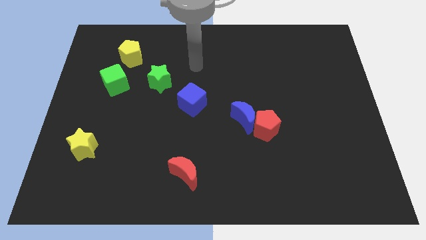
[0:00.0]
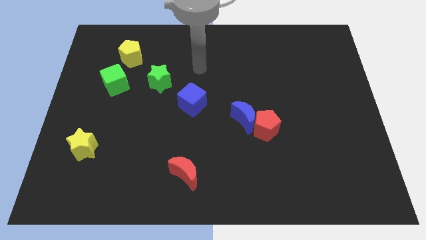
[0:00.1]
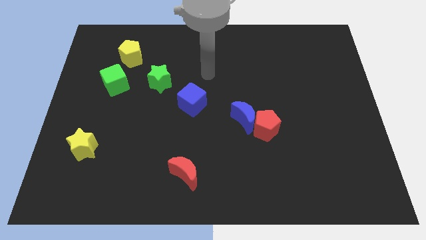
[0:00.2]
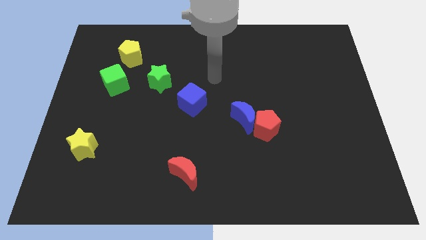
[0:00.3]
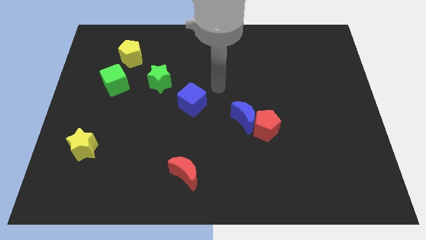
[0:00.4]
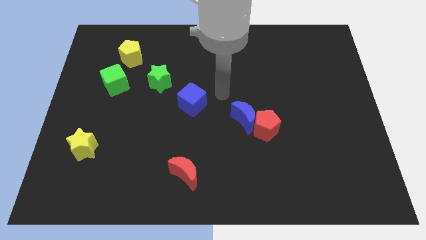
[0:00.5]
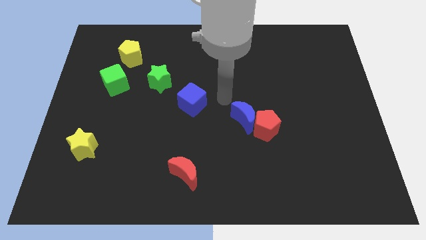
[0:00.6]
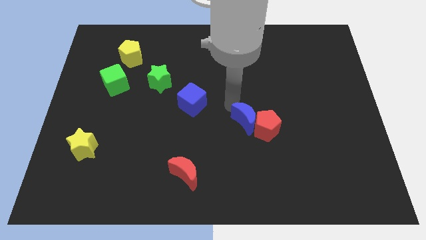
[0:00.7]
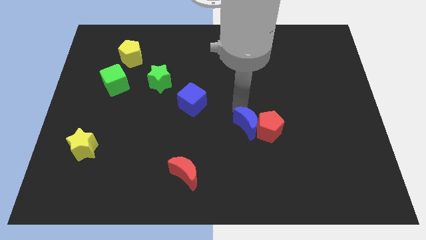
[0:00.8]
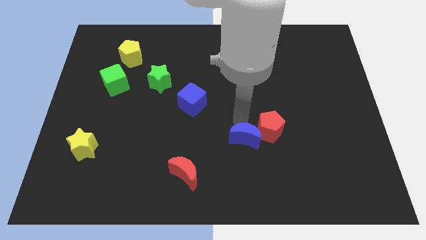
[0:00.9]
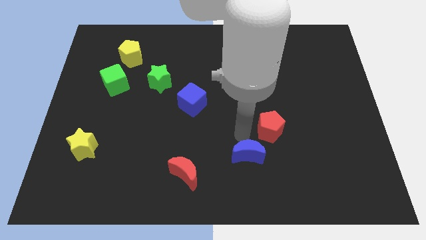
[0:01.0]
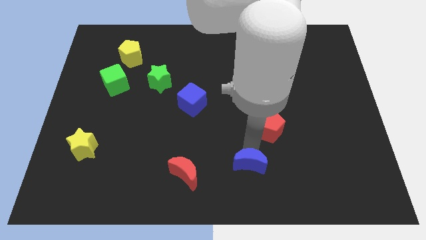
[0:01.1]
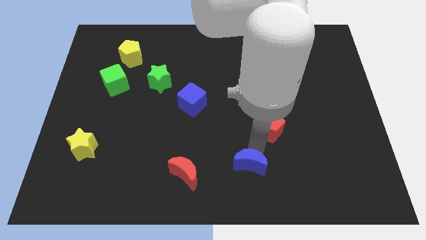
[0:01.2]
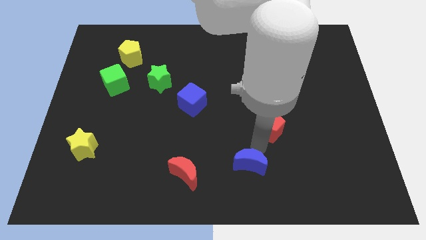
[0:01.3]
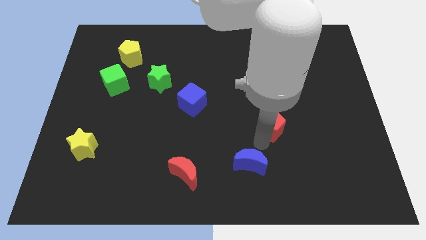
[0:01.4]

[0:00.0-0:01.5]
move the red pentagon away from the blue moon

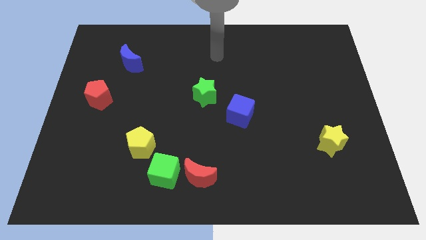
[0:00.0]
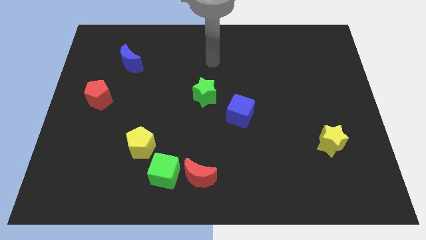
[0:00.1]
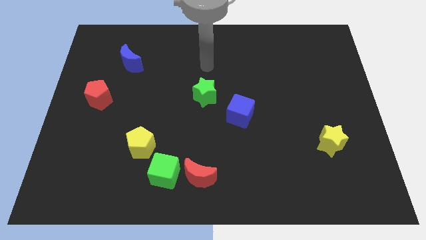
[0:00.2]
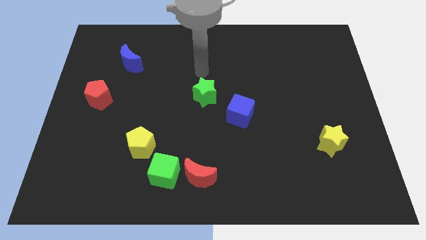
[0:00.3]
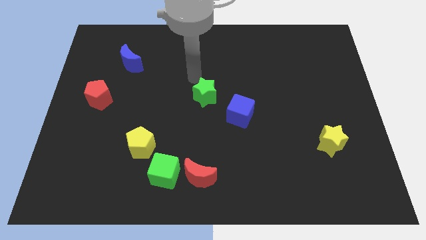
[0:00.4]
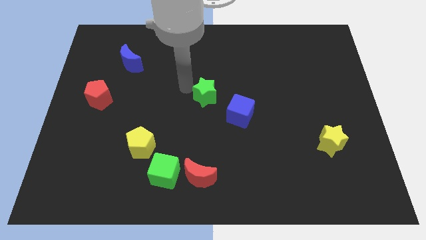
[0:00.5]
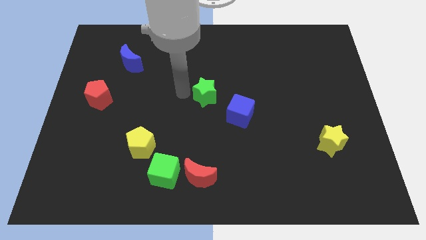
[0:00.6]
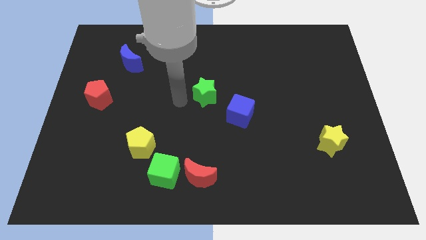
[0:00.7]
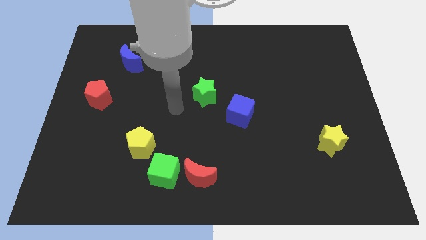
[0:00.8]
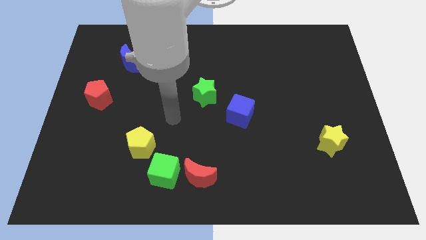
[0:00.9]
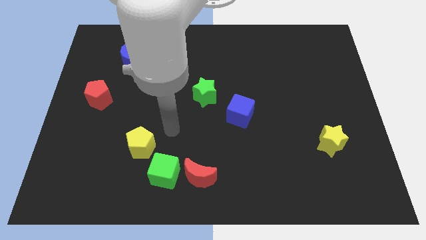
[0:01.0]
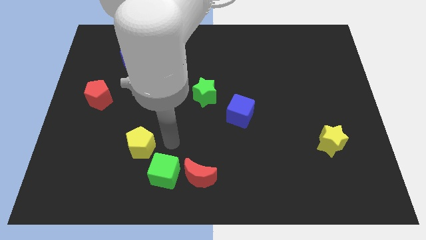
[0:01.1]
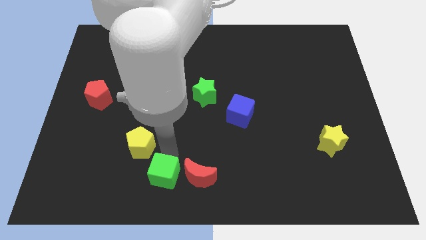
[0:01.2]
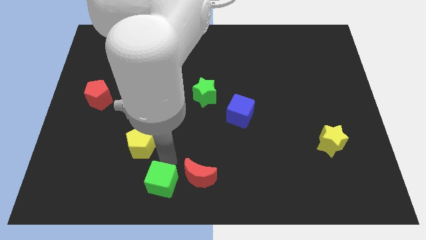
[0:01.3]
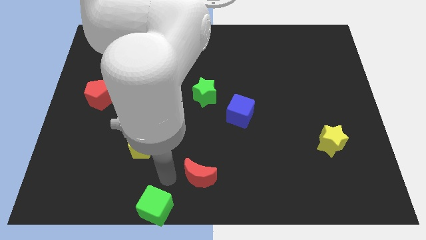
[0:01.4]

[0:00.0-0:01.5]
separate the red moon from the green cube

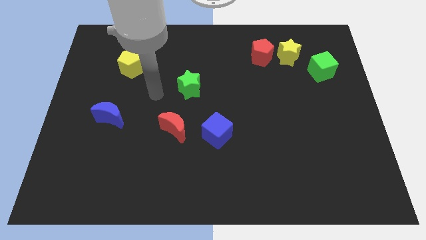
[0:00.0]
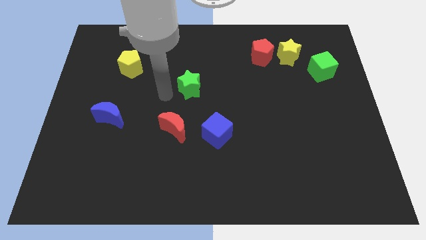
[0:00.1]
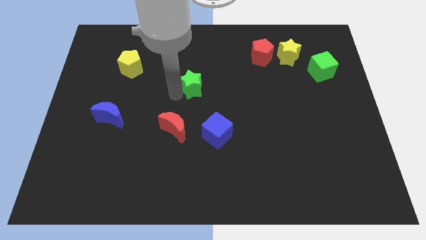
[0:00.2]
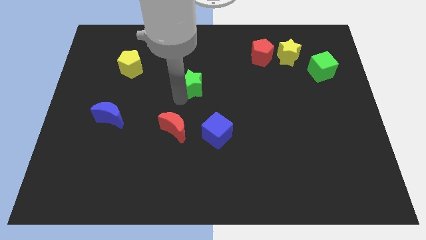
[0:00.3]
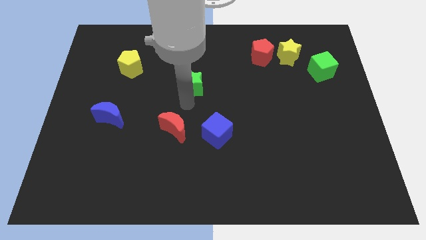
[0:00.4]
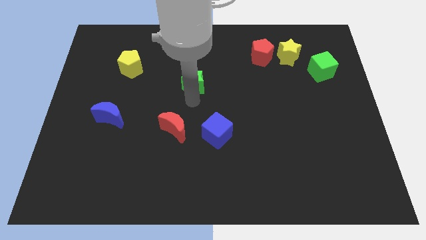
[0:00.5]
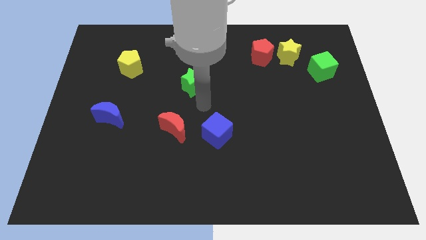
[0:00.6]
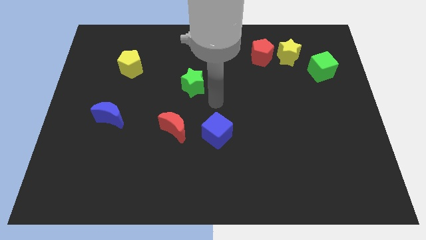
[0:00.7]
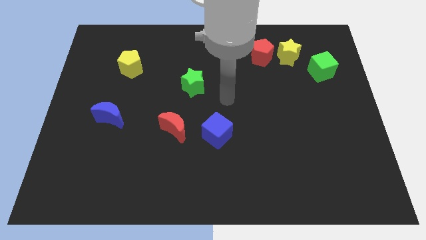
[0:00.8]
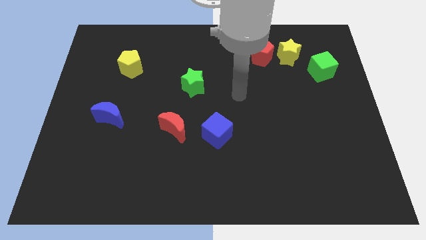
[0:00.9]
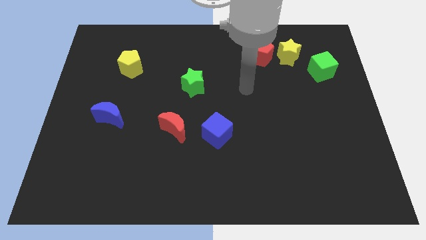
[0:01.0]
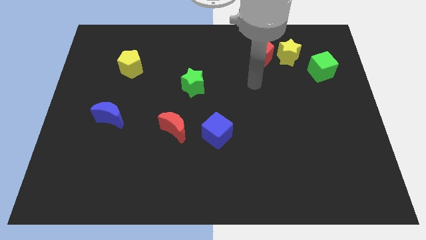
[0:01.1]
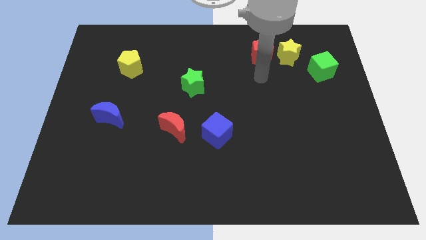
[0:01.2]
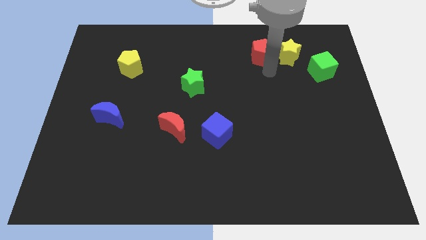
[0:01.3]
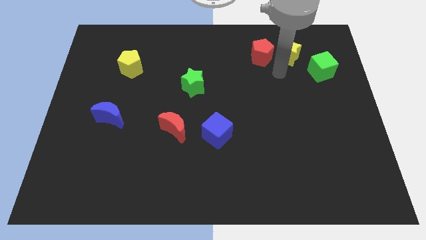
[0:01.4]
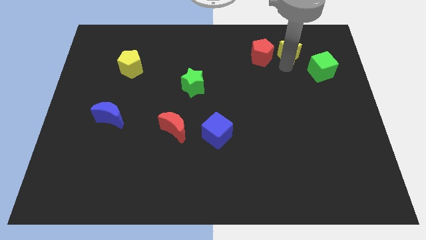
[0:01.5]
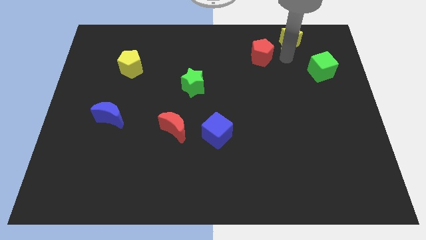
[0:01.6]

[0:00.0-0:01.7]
move the red pentagon away from the yellow star

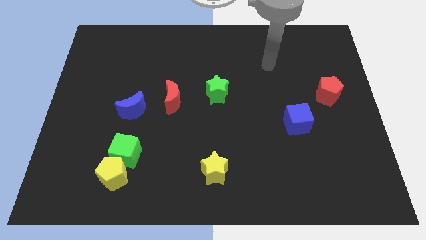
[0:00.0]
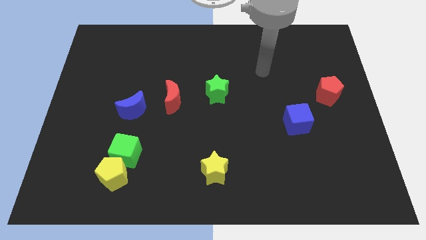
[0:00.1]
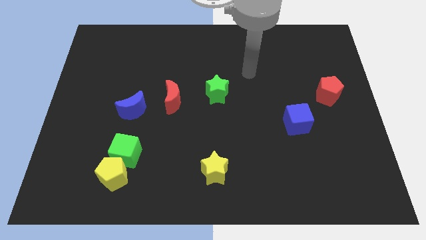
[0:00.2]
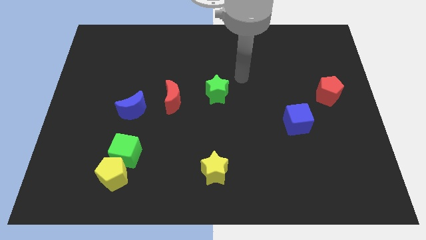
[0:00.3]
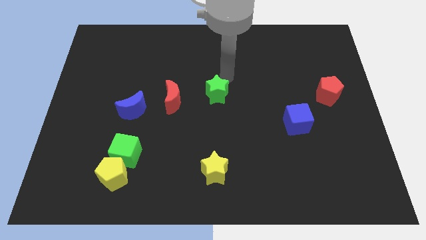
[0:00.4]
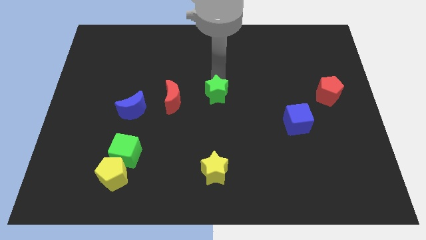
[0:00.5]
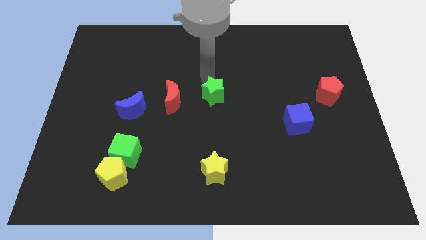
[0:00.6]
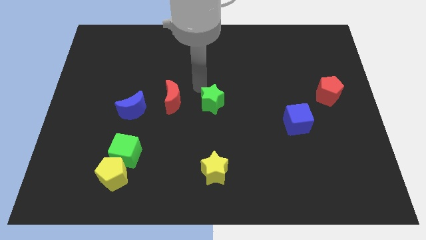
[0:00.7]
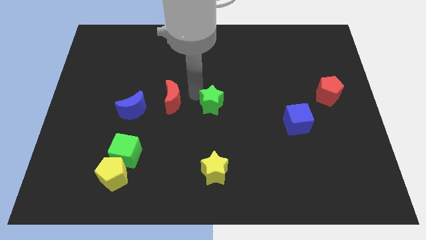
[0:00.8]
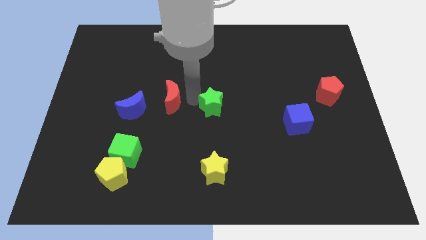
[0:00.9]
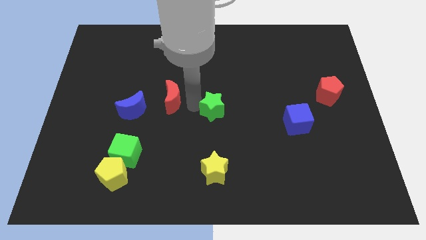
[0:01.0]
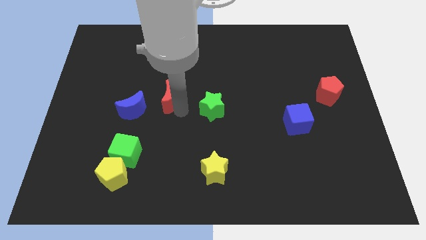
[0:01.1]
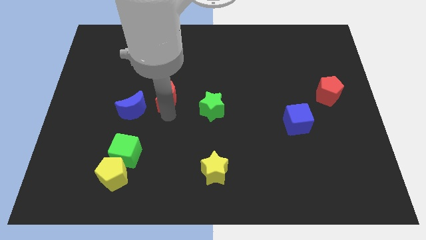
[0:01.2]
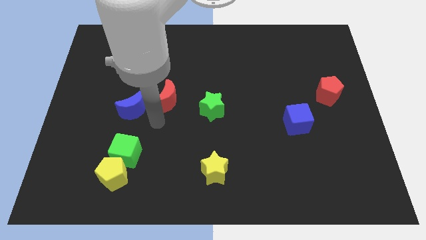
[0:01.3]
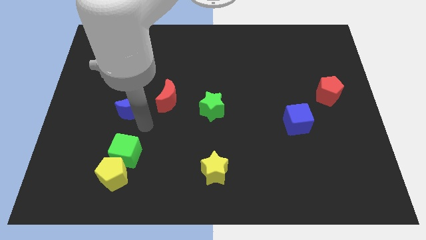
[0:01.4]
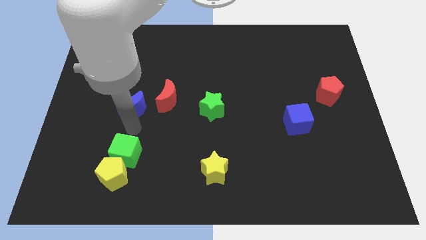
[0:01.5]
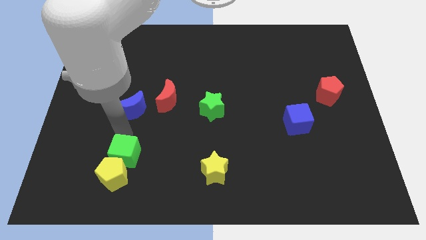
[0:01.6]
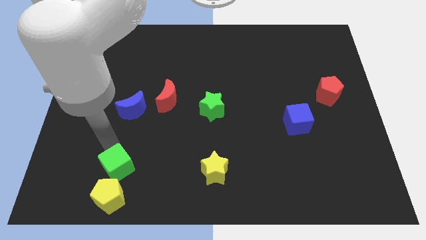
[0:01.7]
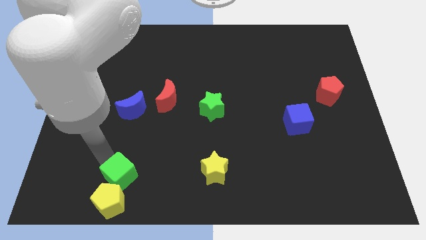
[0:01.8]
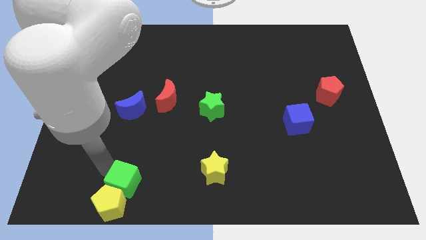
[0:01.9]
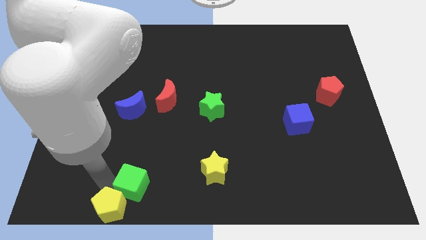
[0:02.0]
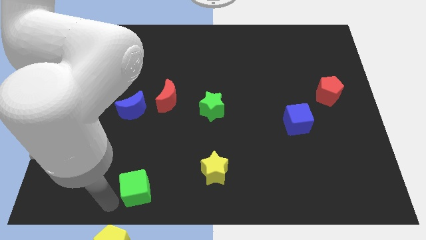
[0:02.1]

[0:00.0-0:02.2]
separate the green cube from the yellow pentagon

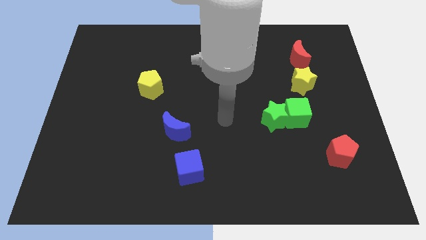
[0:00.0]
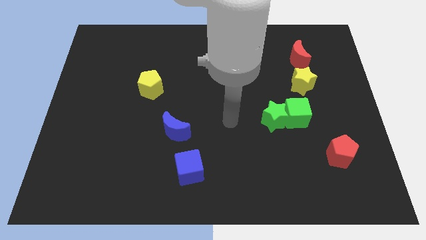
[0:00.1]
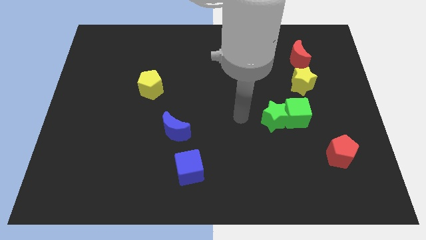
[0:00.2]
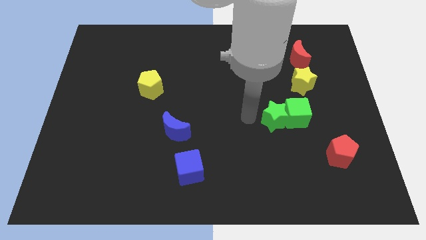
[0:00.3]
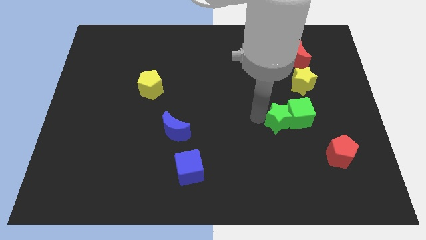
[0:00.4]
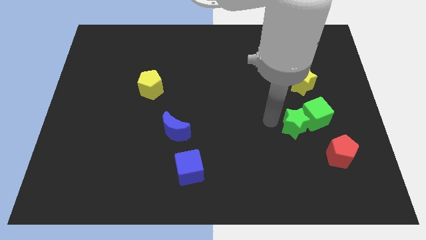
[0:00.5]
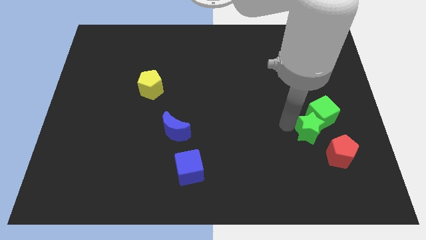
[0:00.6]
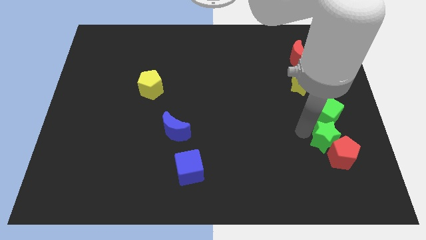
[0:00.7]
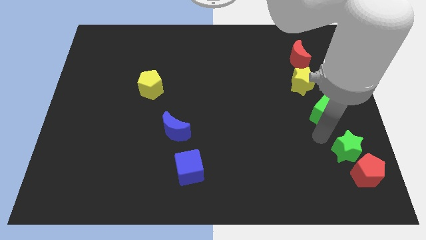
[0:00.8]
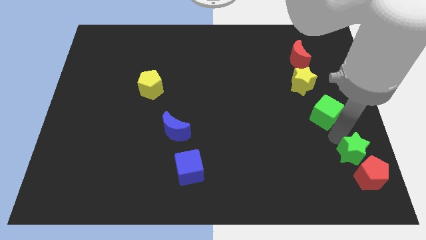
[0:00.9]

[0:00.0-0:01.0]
pull the green cube apart from the green star

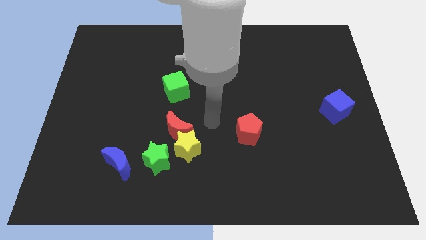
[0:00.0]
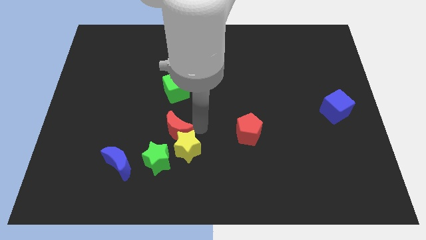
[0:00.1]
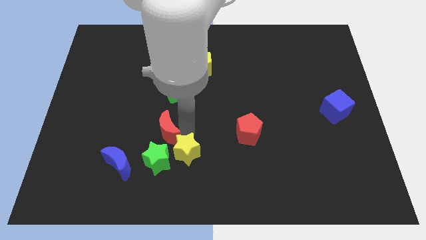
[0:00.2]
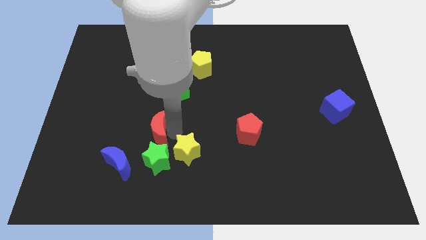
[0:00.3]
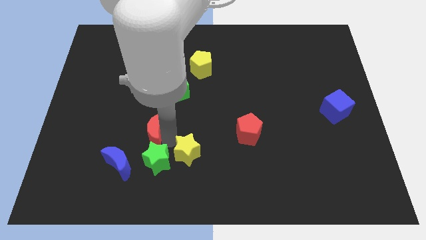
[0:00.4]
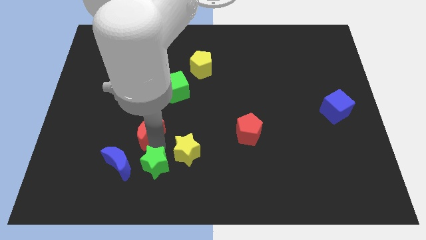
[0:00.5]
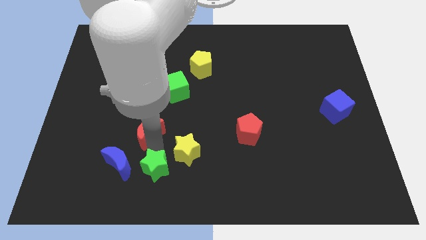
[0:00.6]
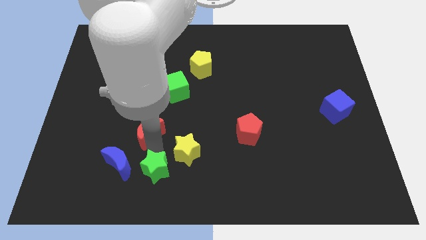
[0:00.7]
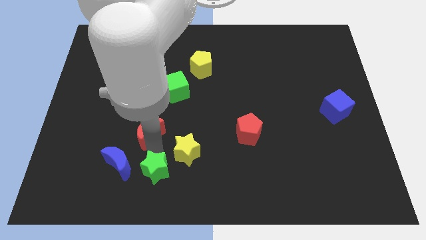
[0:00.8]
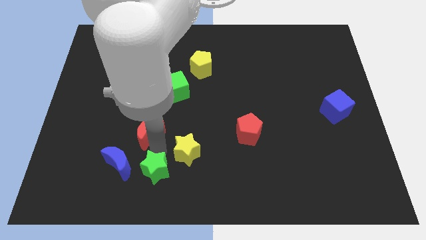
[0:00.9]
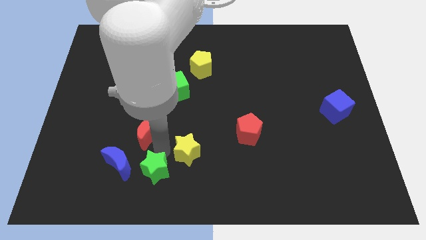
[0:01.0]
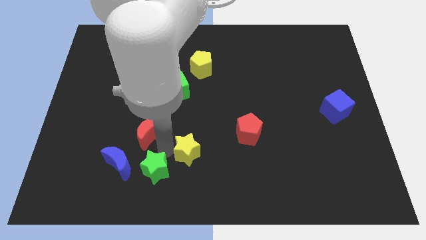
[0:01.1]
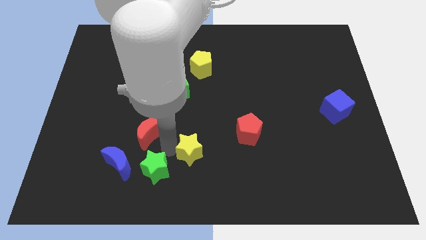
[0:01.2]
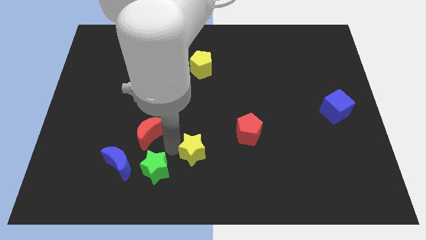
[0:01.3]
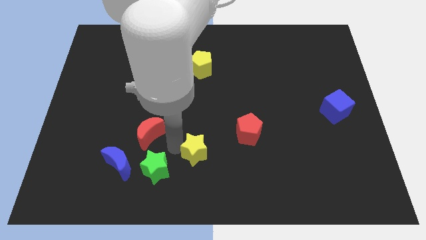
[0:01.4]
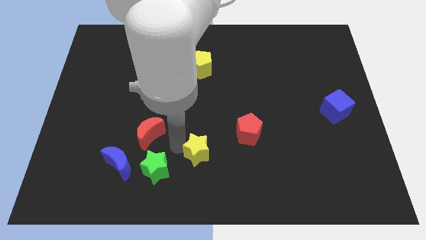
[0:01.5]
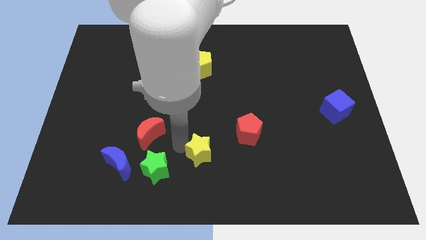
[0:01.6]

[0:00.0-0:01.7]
move the yellow star away from the red moon and green star
